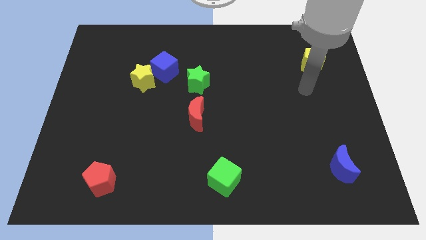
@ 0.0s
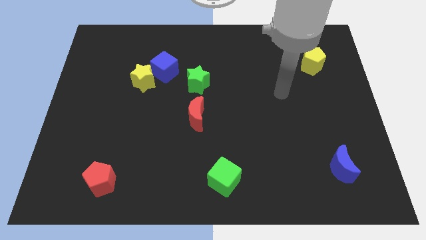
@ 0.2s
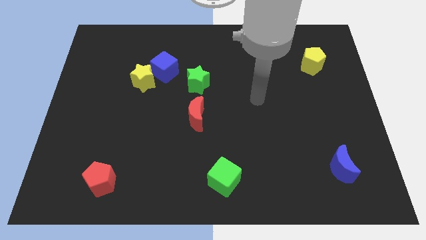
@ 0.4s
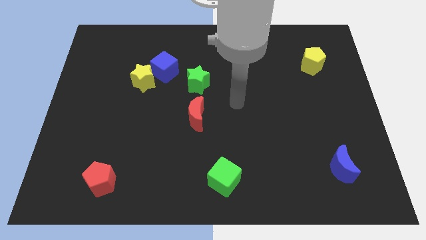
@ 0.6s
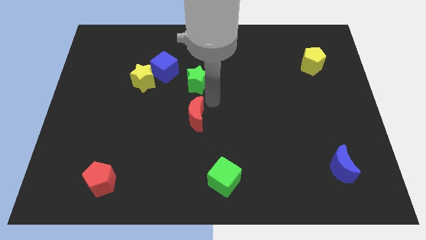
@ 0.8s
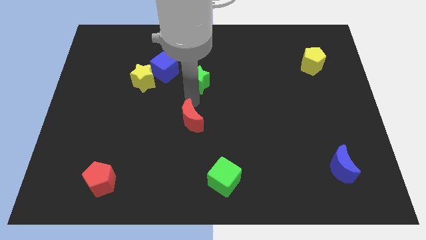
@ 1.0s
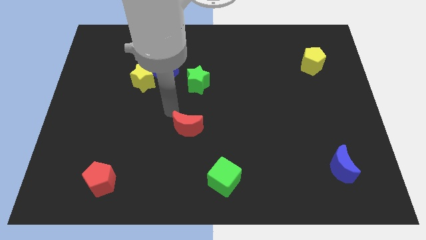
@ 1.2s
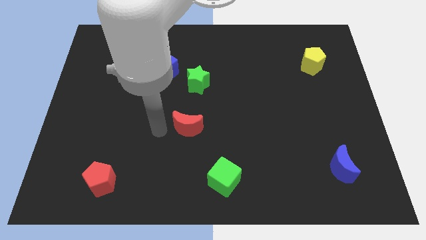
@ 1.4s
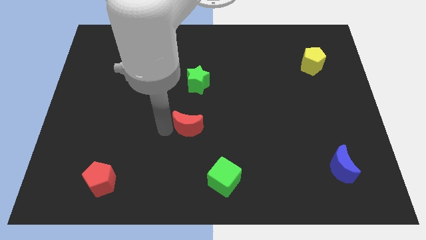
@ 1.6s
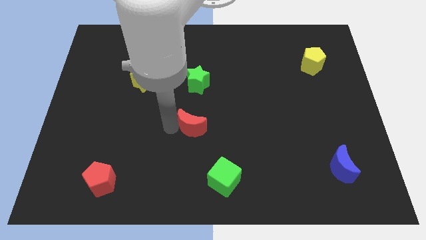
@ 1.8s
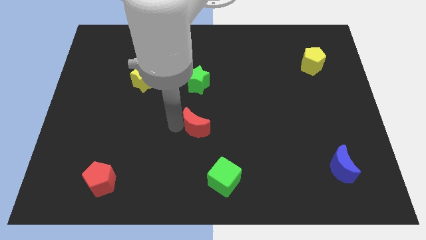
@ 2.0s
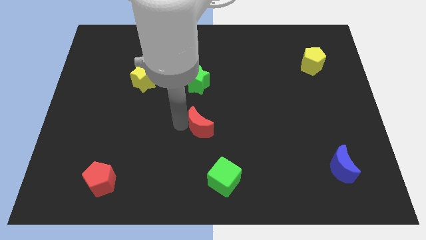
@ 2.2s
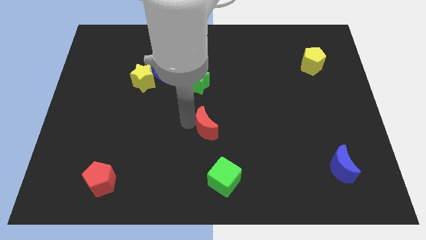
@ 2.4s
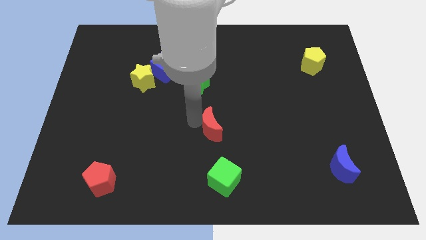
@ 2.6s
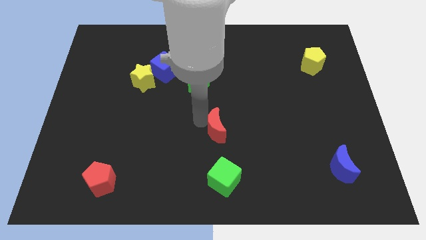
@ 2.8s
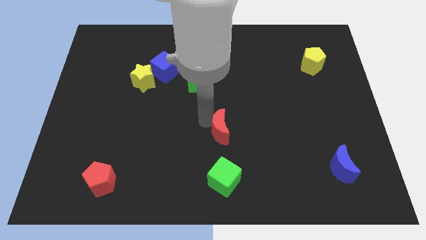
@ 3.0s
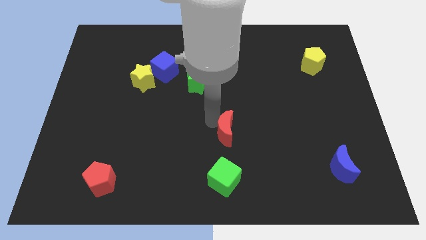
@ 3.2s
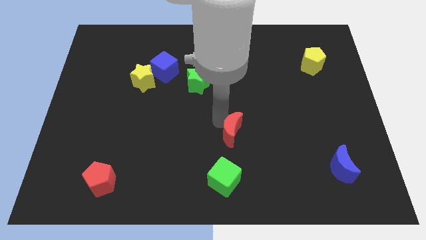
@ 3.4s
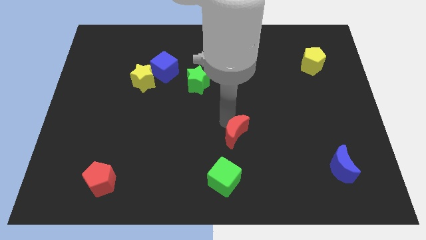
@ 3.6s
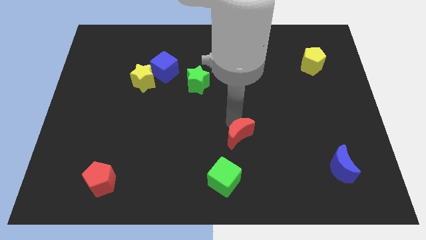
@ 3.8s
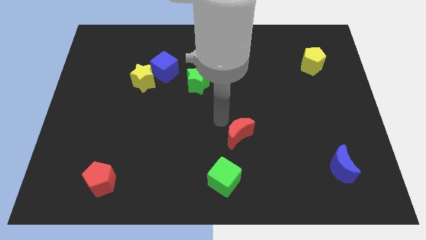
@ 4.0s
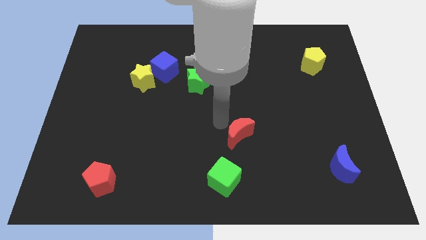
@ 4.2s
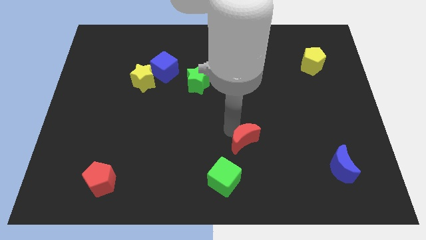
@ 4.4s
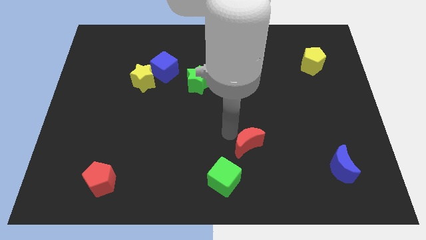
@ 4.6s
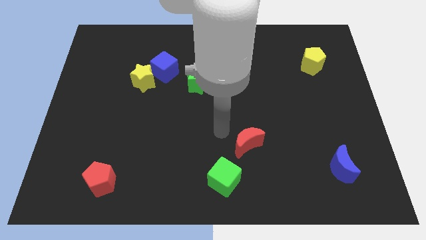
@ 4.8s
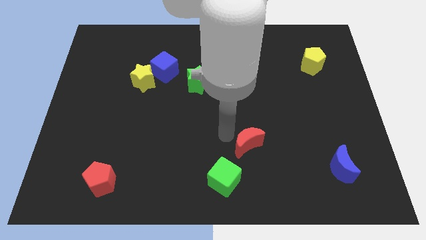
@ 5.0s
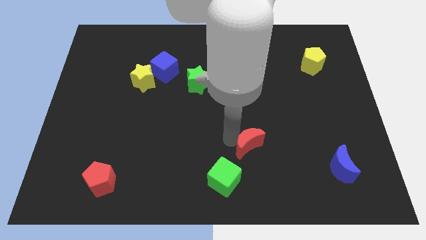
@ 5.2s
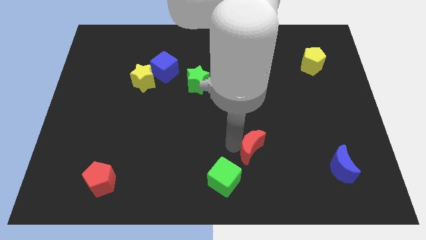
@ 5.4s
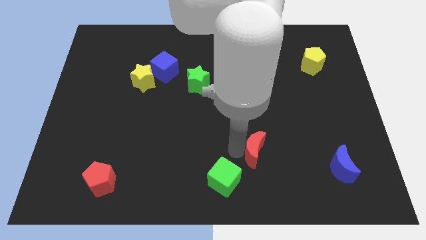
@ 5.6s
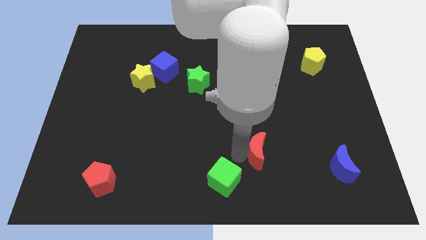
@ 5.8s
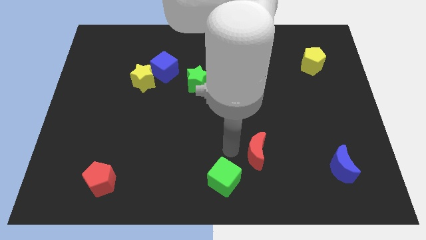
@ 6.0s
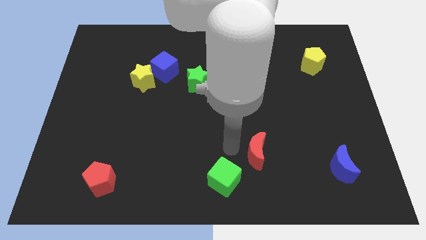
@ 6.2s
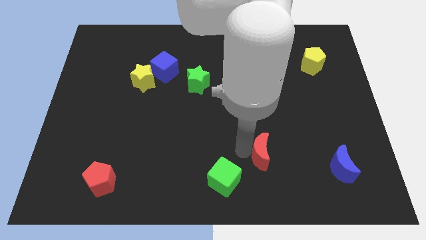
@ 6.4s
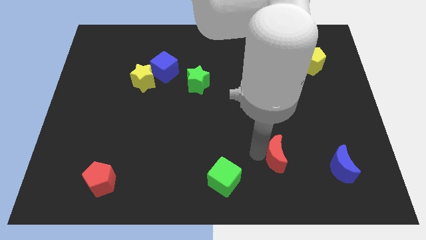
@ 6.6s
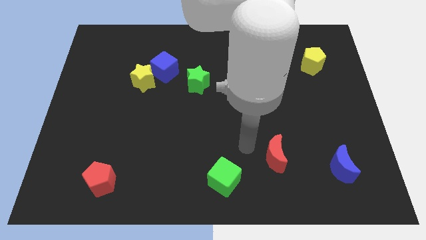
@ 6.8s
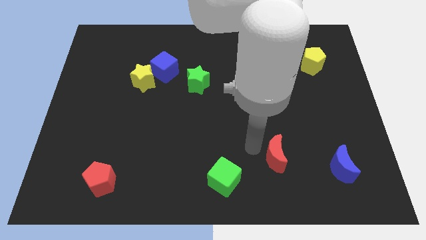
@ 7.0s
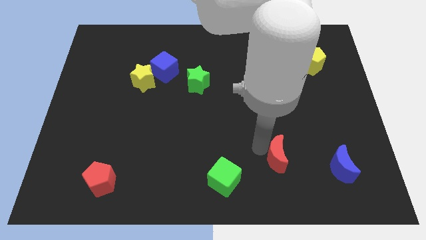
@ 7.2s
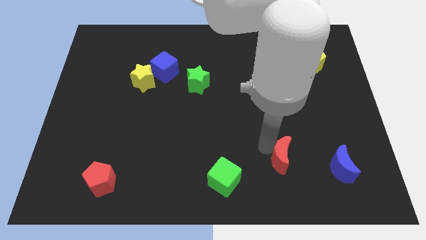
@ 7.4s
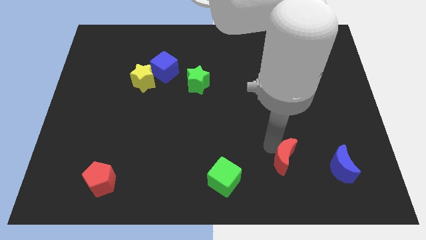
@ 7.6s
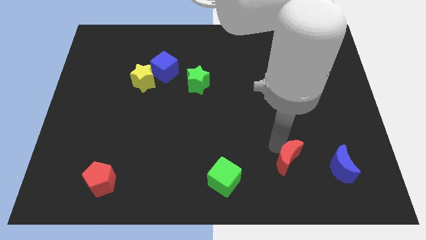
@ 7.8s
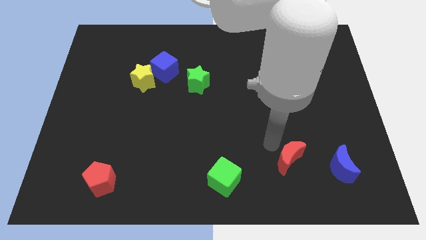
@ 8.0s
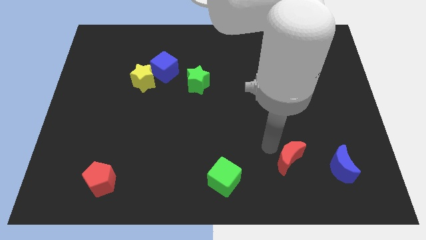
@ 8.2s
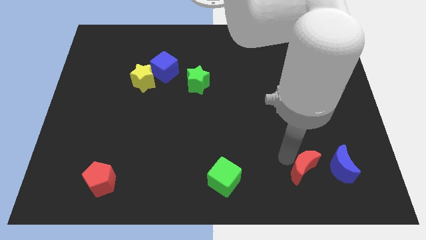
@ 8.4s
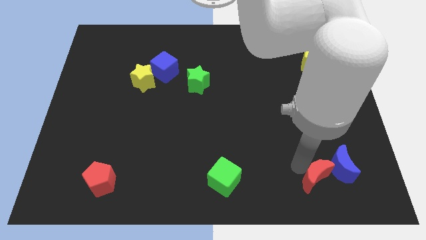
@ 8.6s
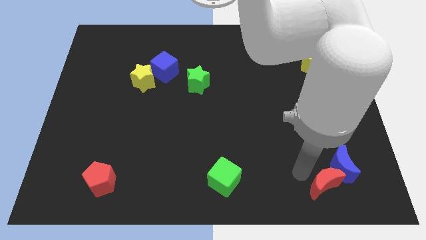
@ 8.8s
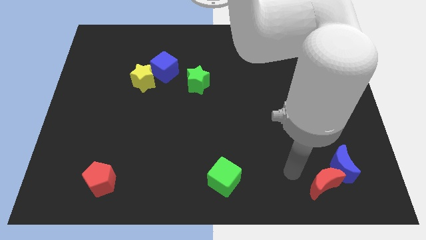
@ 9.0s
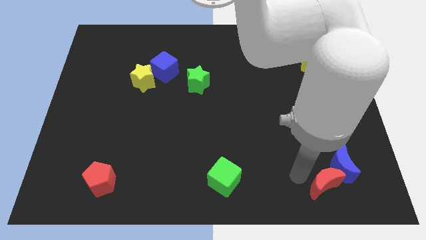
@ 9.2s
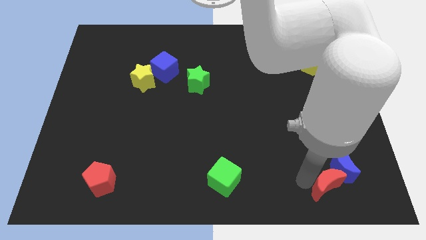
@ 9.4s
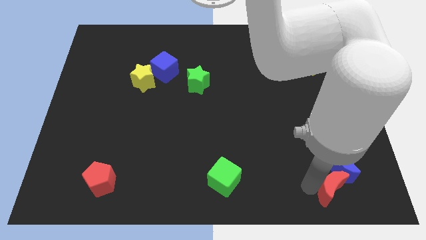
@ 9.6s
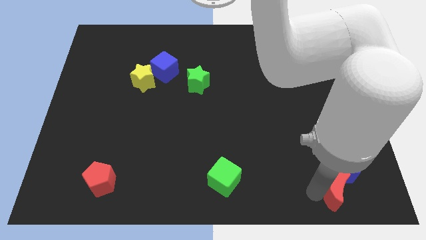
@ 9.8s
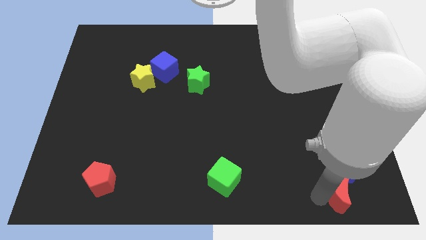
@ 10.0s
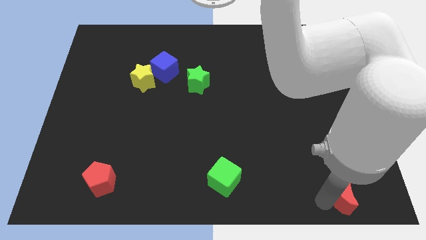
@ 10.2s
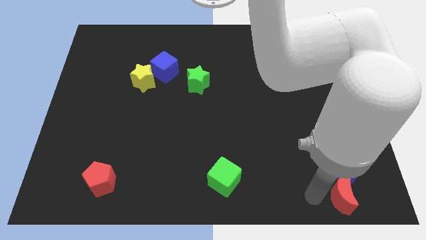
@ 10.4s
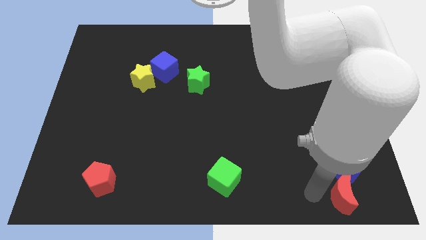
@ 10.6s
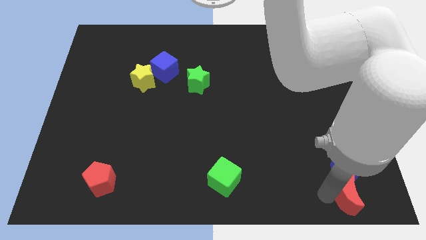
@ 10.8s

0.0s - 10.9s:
slide the red moon to the lower right corner

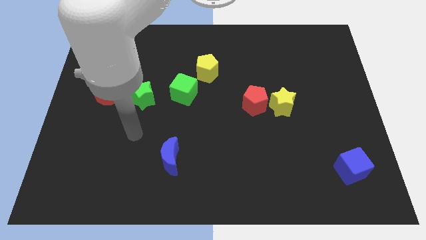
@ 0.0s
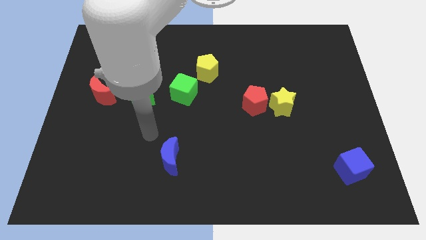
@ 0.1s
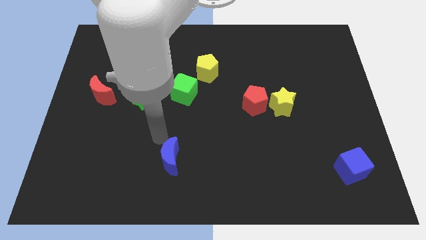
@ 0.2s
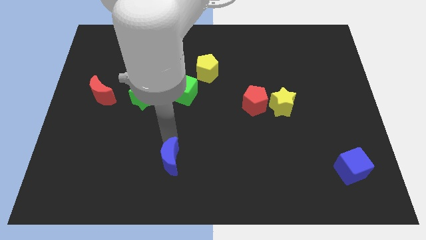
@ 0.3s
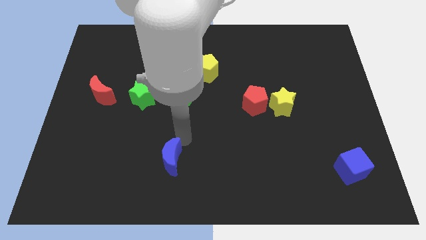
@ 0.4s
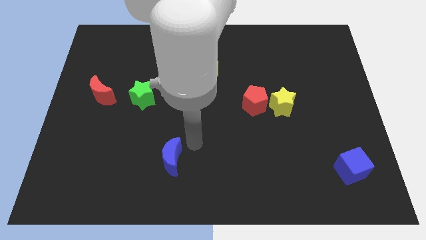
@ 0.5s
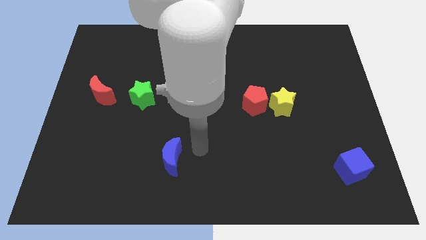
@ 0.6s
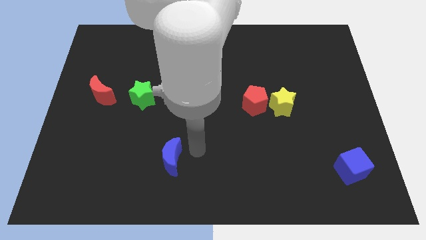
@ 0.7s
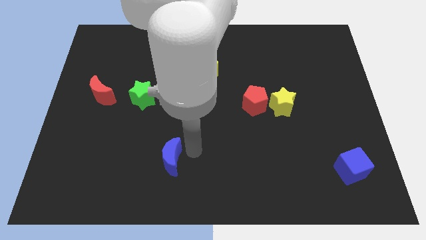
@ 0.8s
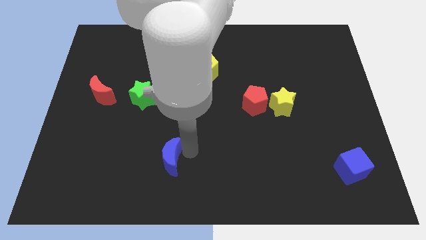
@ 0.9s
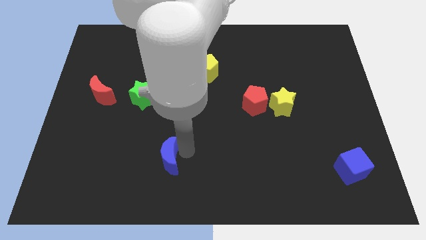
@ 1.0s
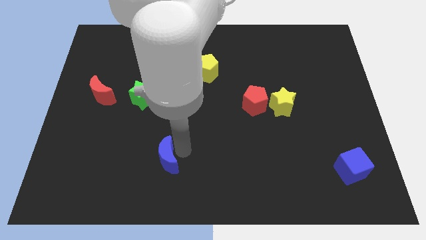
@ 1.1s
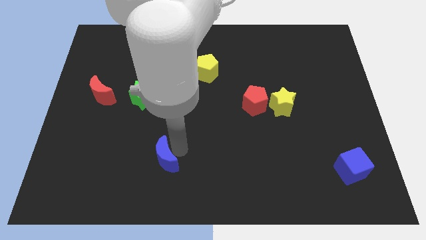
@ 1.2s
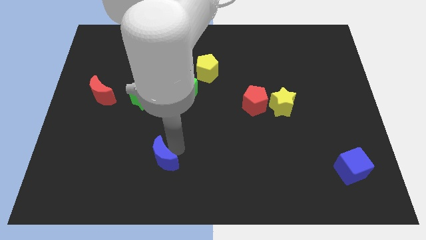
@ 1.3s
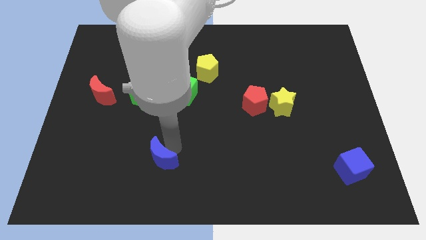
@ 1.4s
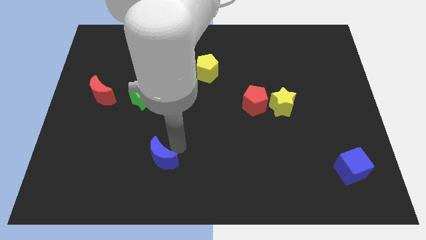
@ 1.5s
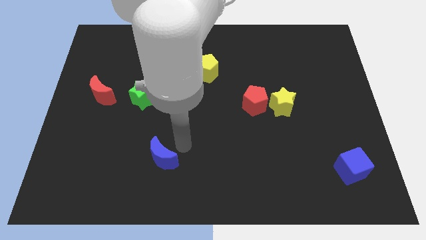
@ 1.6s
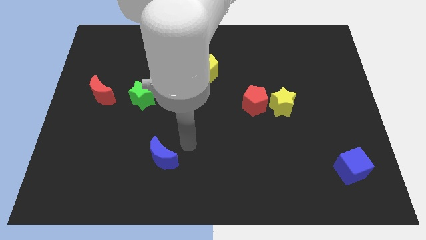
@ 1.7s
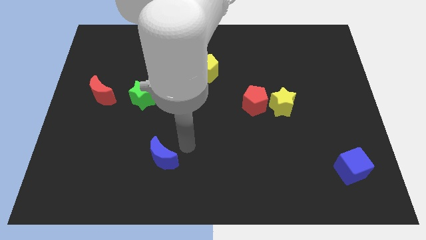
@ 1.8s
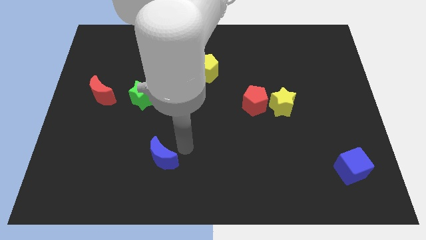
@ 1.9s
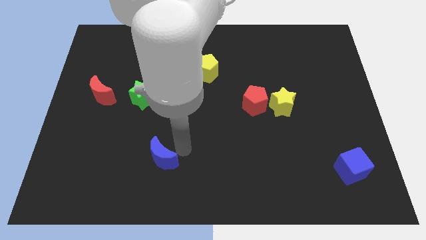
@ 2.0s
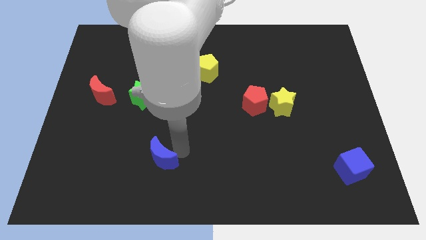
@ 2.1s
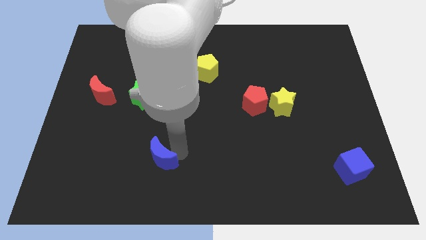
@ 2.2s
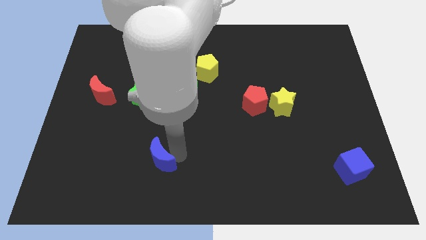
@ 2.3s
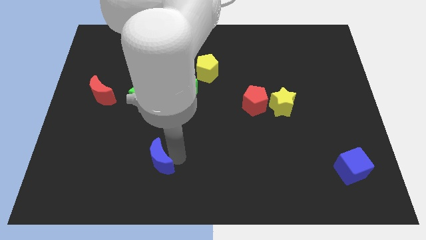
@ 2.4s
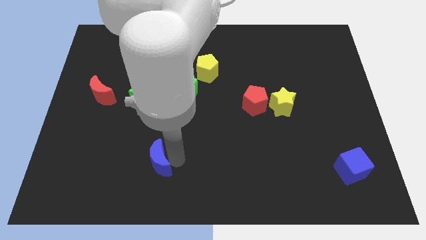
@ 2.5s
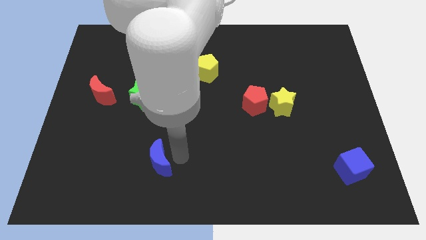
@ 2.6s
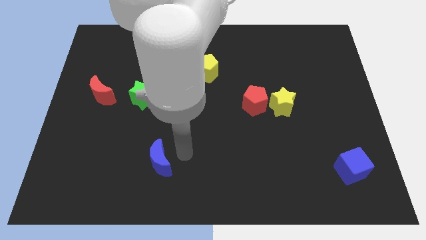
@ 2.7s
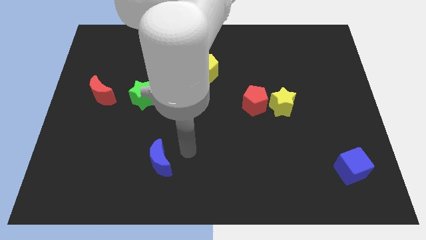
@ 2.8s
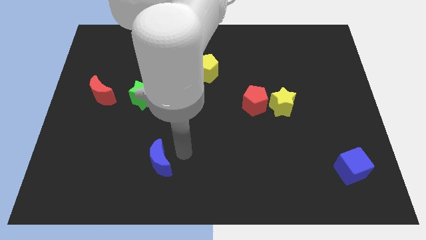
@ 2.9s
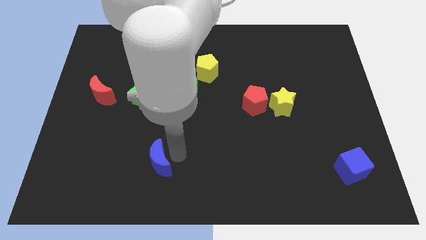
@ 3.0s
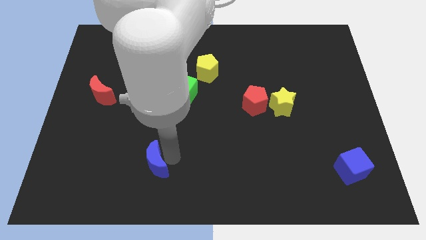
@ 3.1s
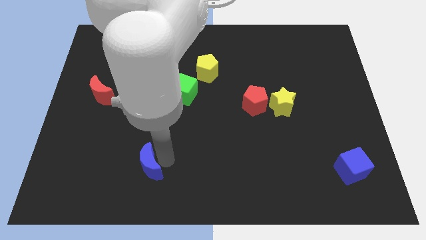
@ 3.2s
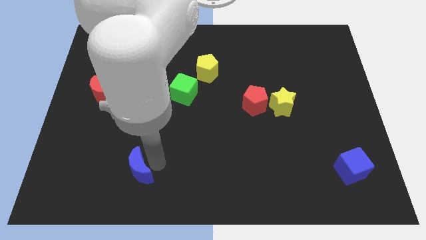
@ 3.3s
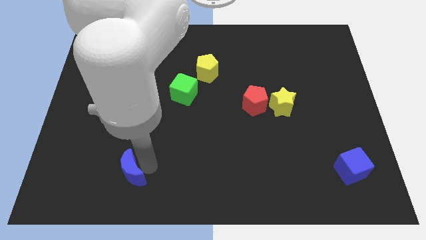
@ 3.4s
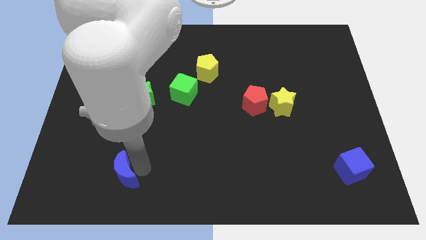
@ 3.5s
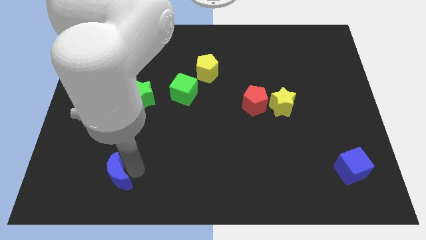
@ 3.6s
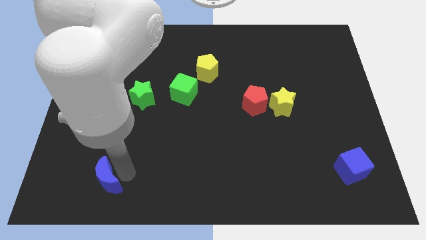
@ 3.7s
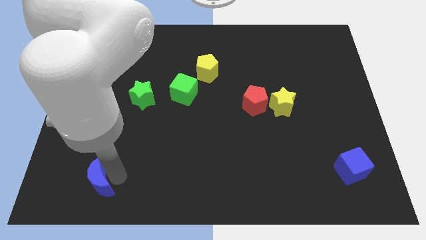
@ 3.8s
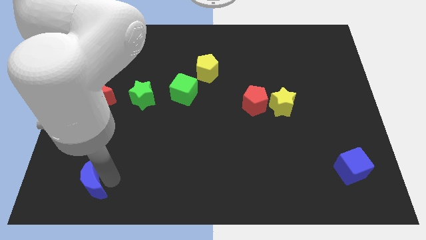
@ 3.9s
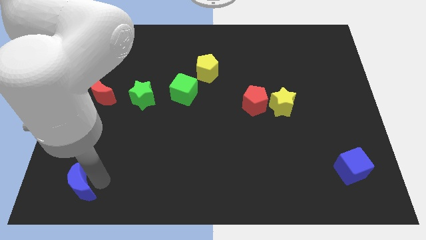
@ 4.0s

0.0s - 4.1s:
move the blue moon to the lower left corner
